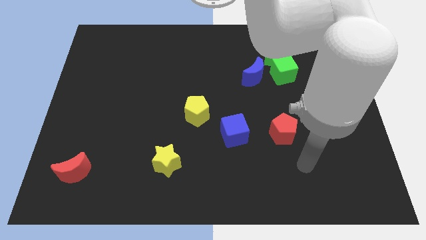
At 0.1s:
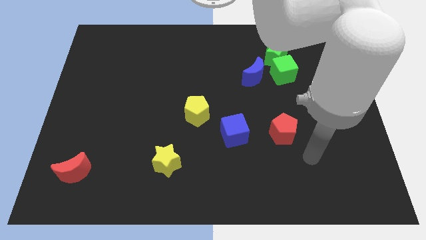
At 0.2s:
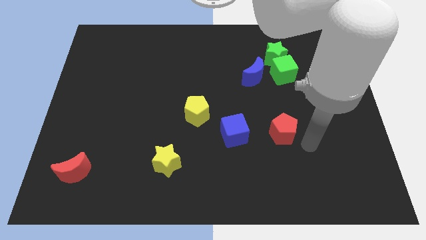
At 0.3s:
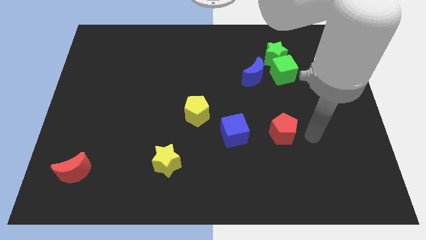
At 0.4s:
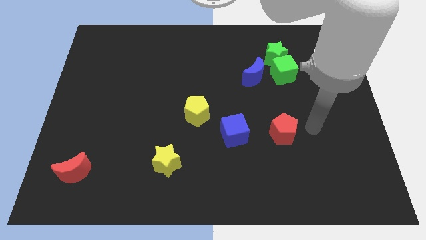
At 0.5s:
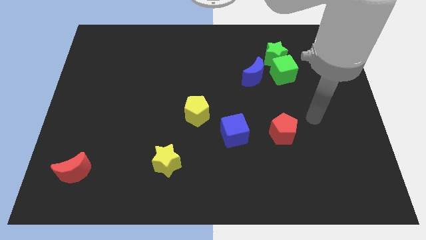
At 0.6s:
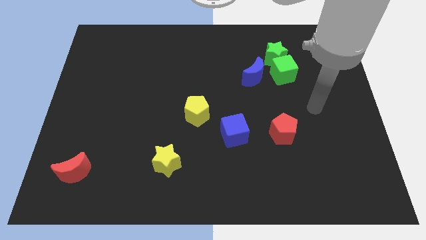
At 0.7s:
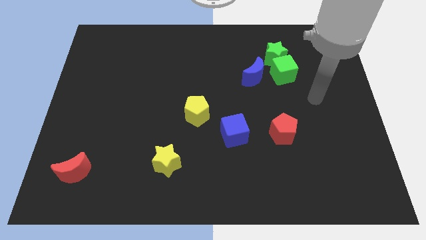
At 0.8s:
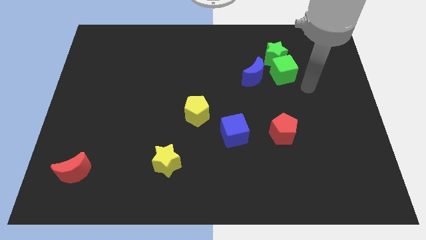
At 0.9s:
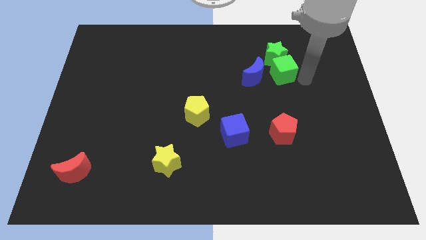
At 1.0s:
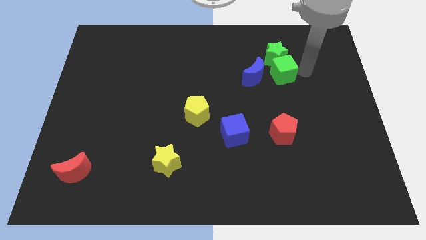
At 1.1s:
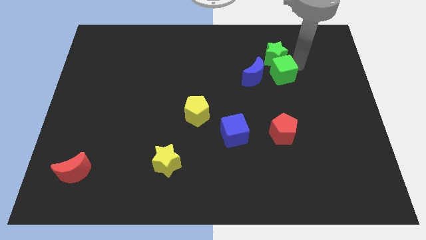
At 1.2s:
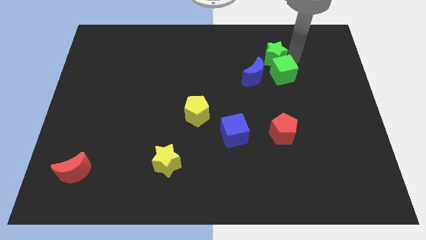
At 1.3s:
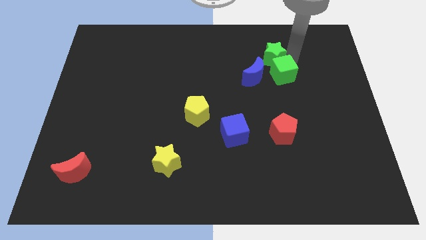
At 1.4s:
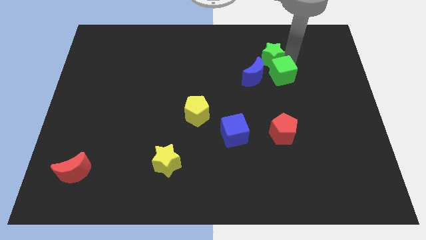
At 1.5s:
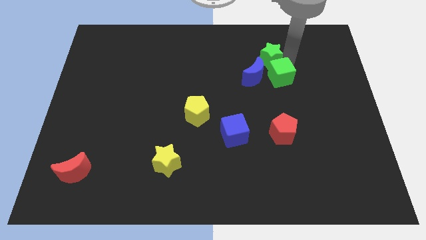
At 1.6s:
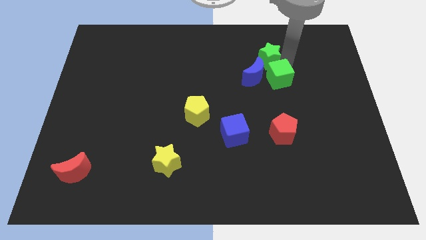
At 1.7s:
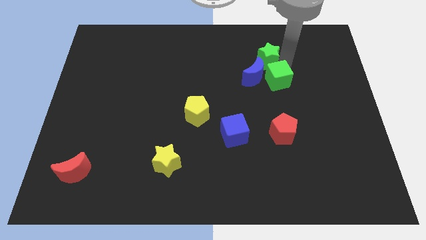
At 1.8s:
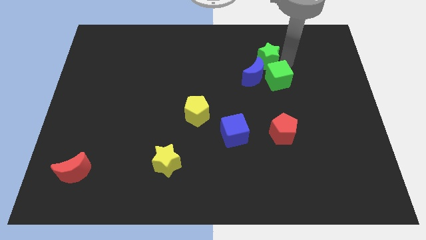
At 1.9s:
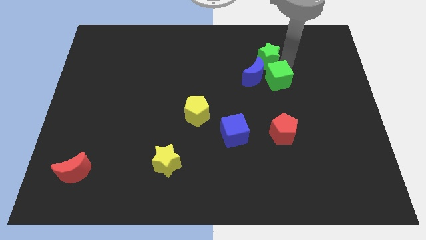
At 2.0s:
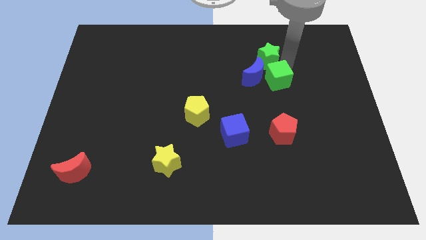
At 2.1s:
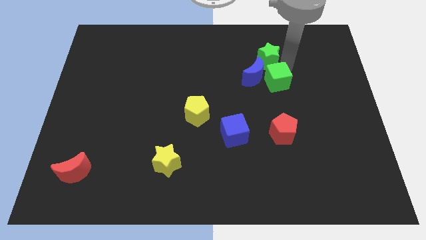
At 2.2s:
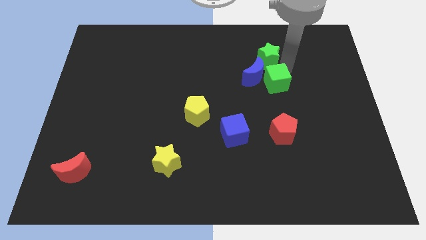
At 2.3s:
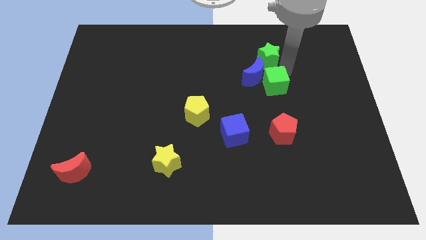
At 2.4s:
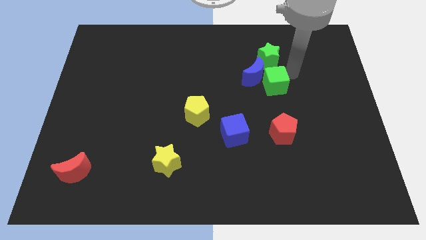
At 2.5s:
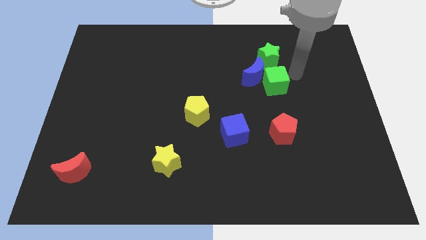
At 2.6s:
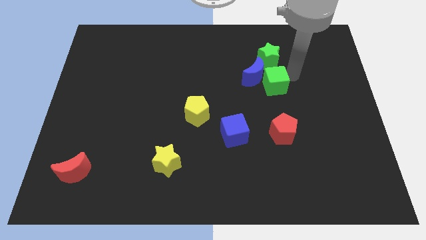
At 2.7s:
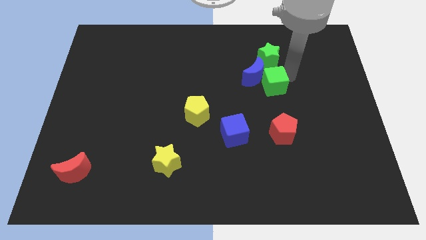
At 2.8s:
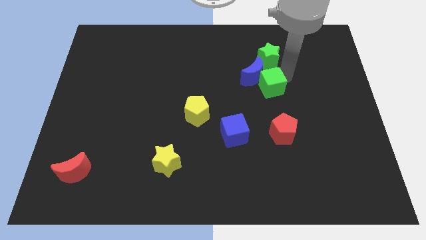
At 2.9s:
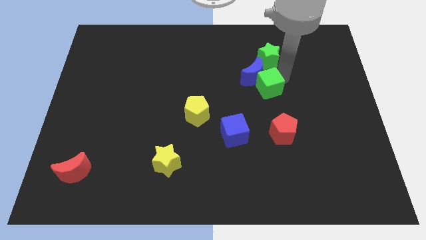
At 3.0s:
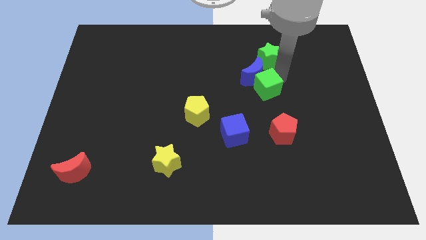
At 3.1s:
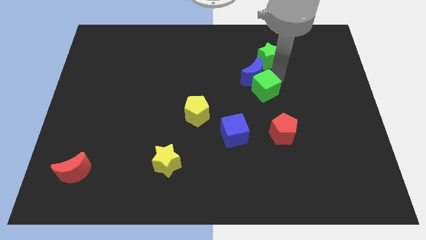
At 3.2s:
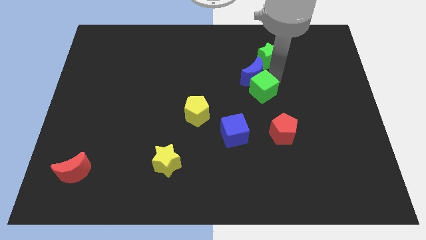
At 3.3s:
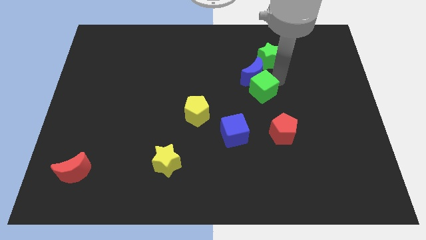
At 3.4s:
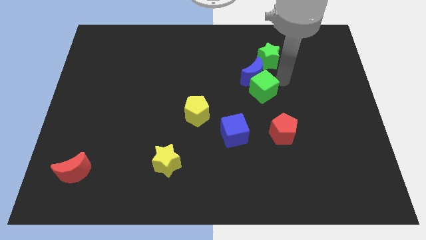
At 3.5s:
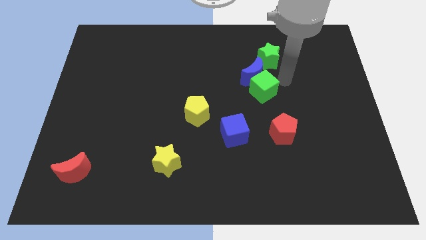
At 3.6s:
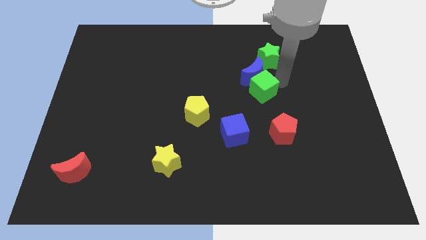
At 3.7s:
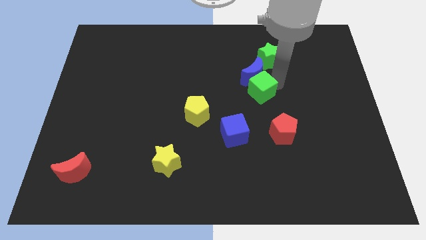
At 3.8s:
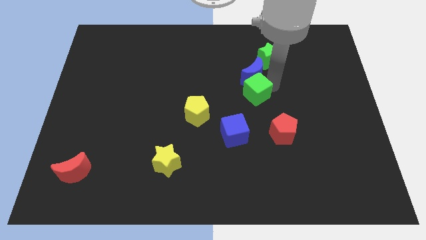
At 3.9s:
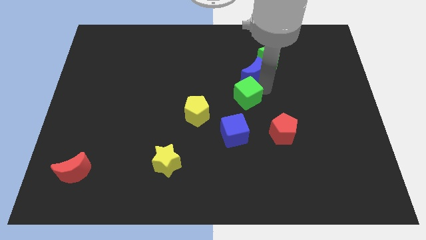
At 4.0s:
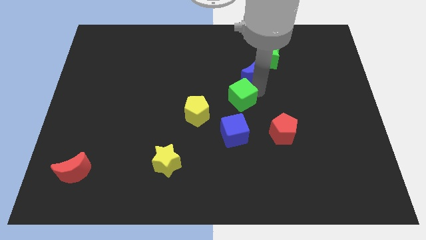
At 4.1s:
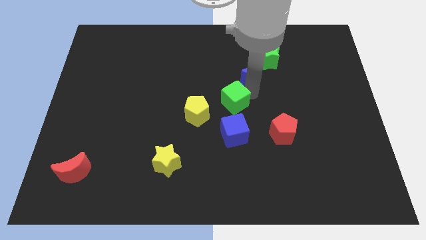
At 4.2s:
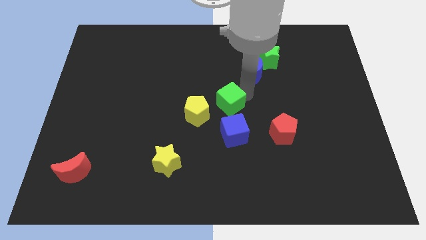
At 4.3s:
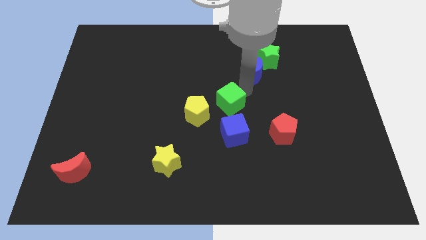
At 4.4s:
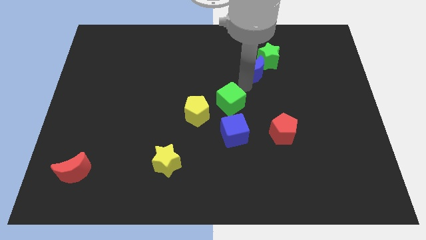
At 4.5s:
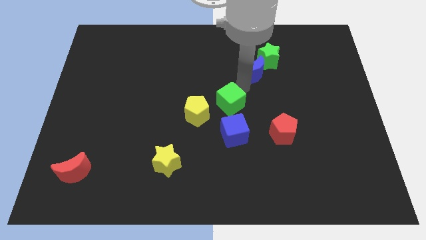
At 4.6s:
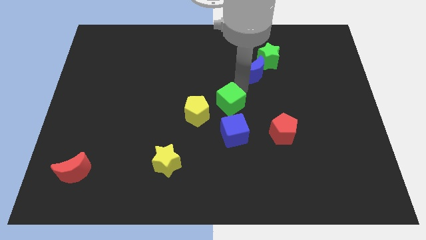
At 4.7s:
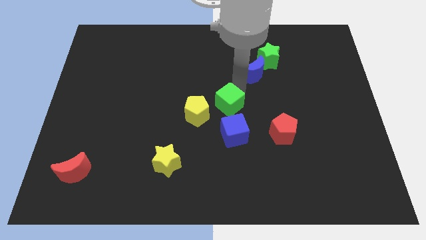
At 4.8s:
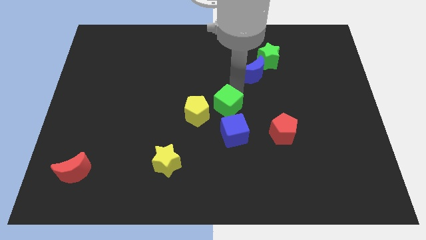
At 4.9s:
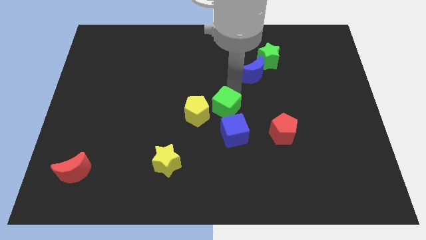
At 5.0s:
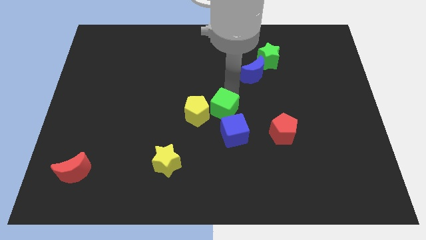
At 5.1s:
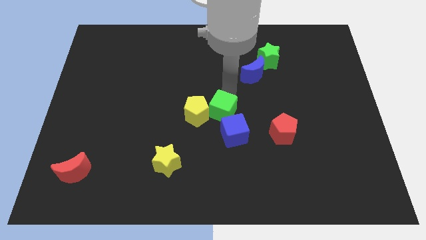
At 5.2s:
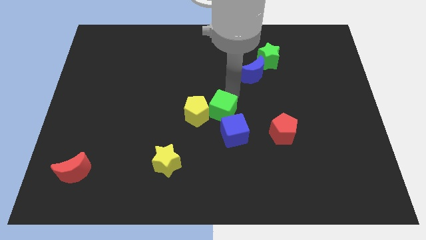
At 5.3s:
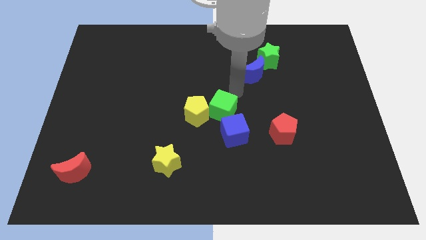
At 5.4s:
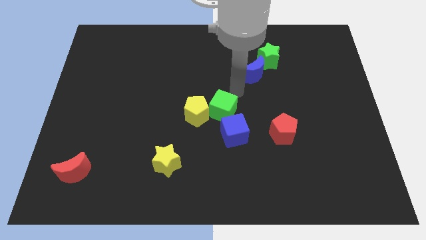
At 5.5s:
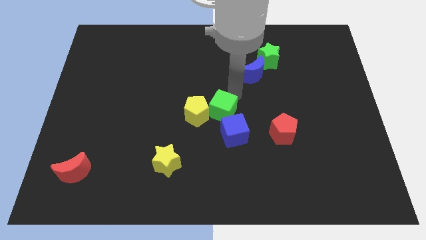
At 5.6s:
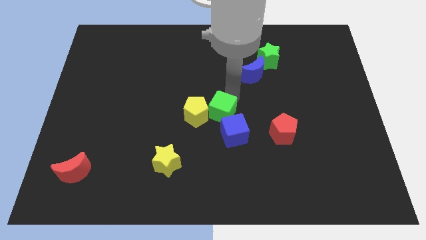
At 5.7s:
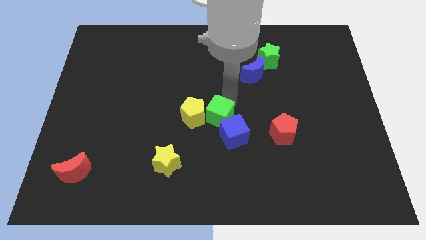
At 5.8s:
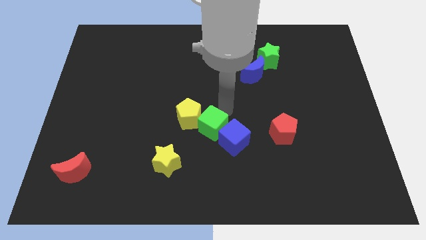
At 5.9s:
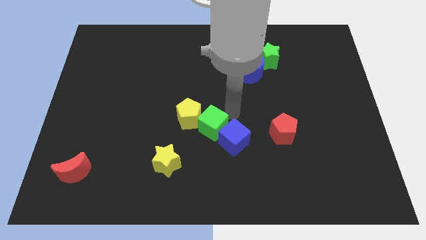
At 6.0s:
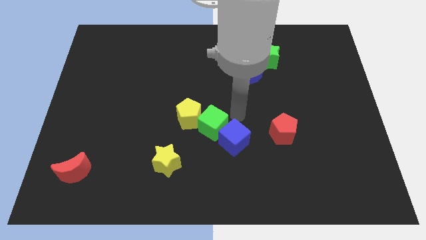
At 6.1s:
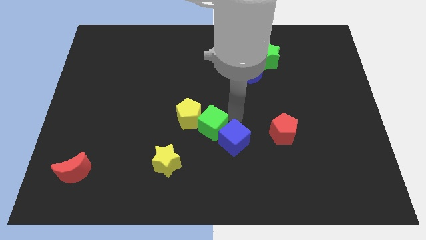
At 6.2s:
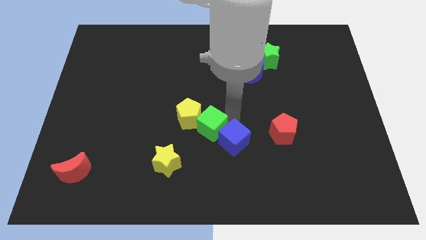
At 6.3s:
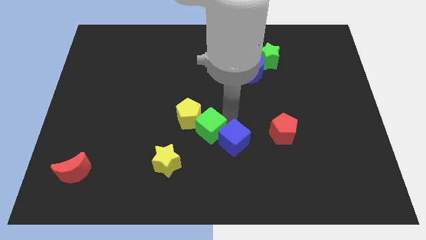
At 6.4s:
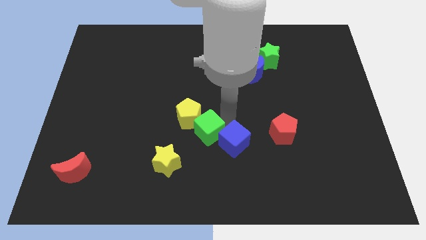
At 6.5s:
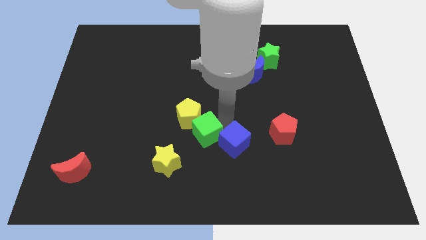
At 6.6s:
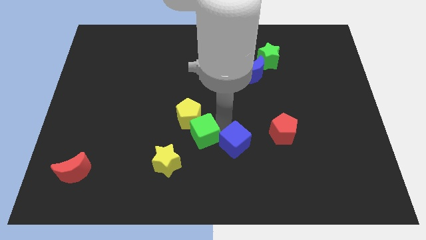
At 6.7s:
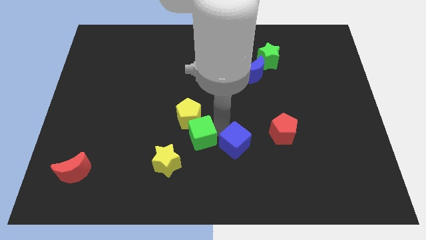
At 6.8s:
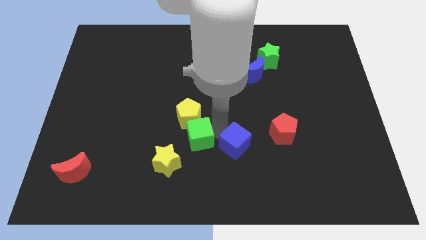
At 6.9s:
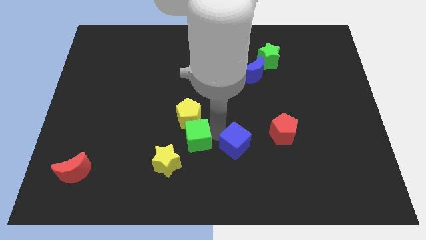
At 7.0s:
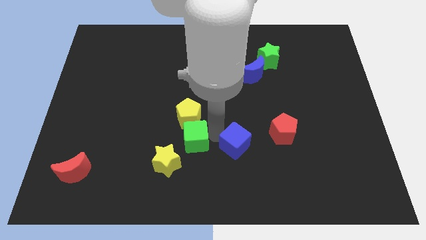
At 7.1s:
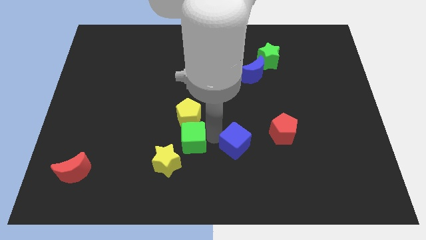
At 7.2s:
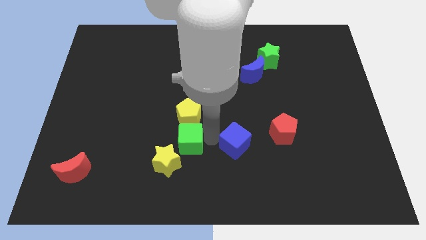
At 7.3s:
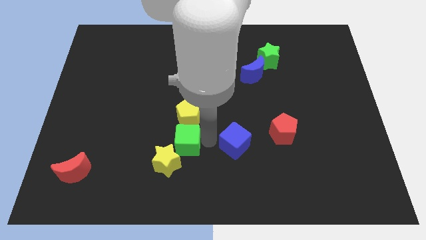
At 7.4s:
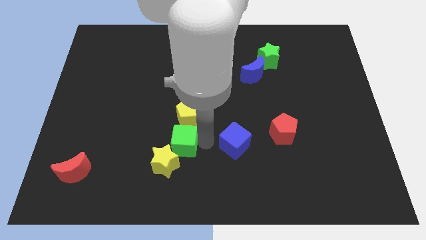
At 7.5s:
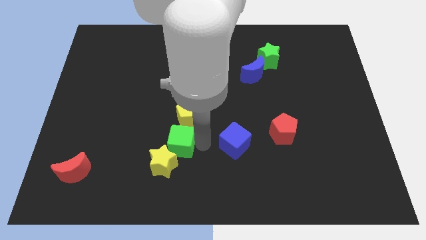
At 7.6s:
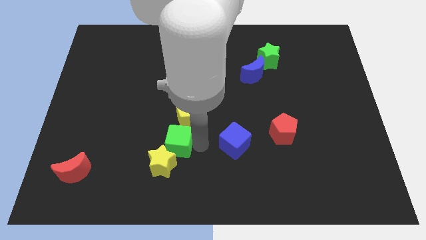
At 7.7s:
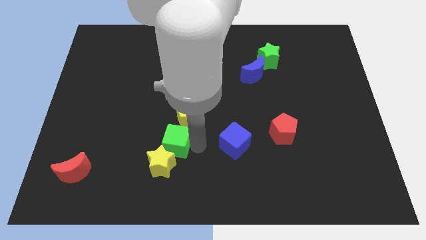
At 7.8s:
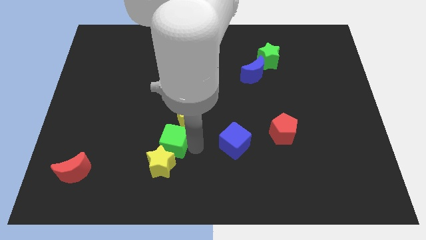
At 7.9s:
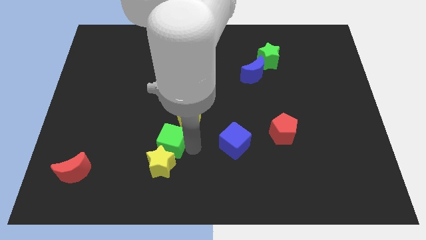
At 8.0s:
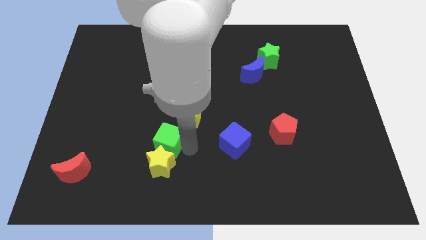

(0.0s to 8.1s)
push the green cube to the top left side of the yellow star
